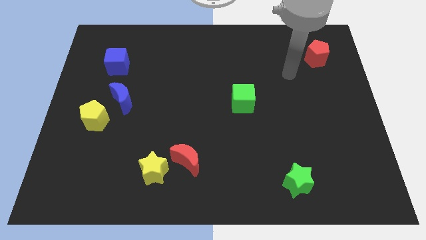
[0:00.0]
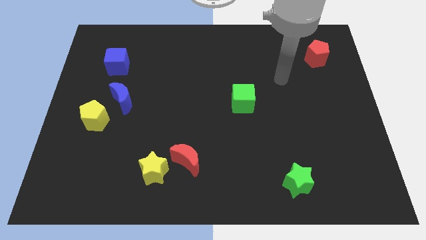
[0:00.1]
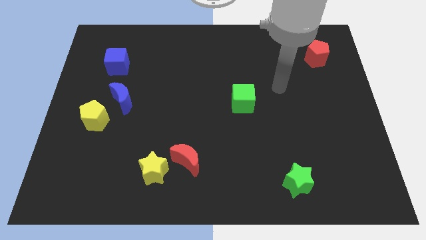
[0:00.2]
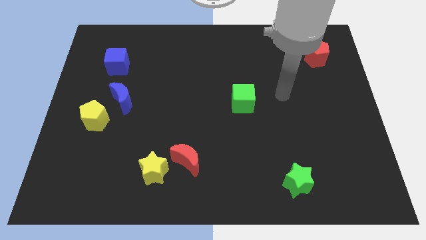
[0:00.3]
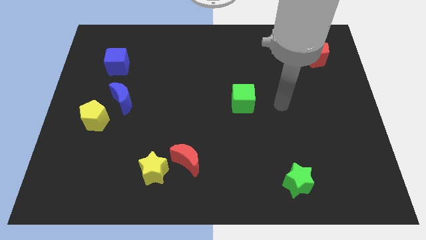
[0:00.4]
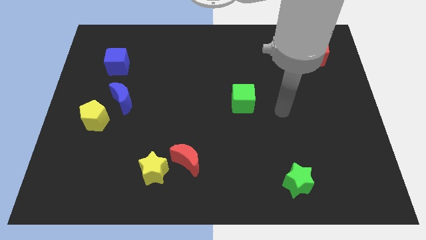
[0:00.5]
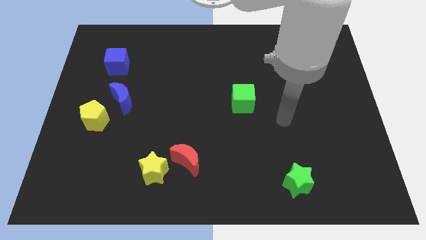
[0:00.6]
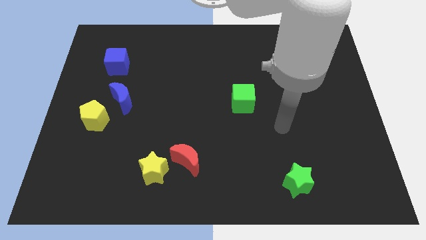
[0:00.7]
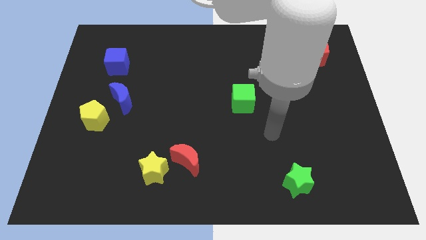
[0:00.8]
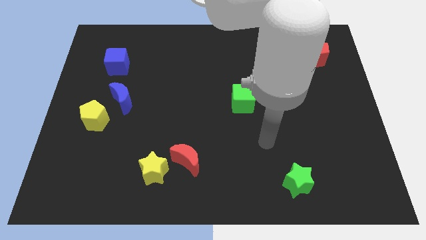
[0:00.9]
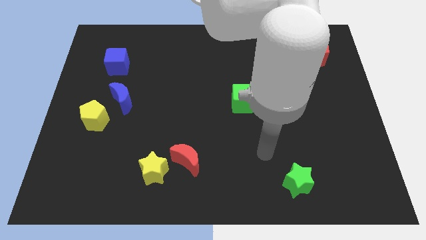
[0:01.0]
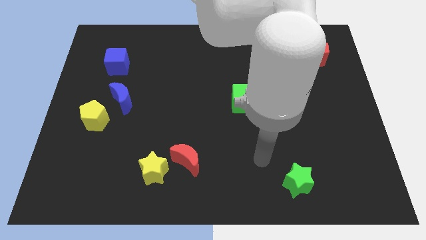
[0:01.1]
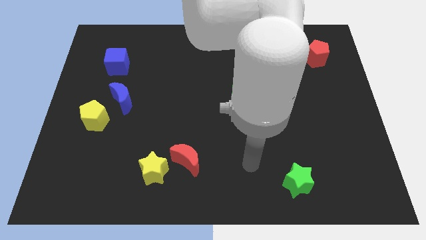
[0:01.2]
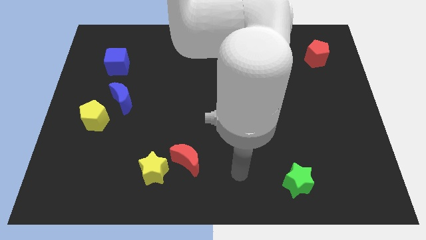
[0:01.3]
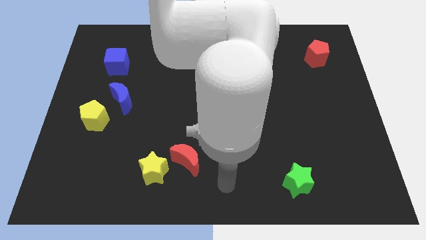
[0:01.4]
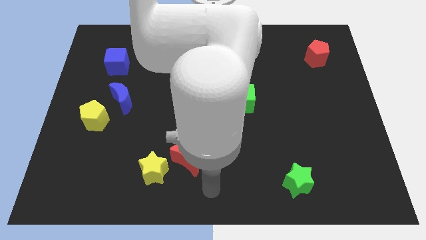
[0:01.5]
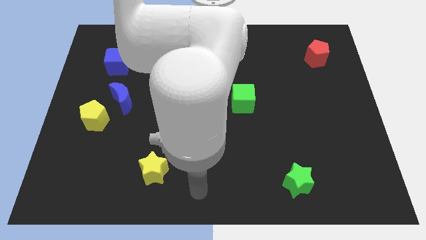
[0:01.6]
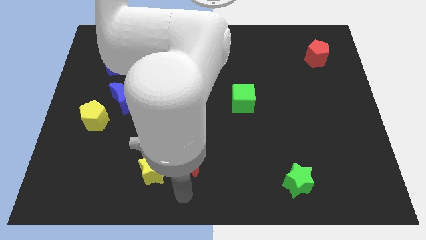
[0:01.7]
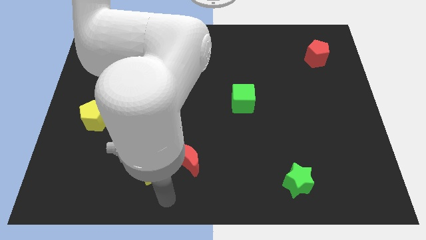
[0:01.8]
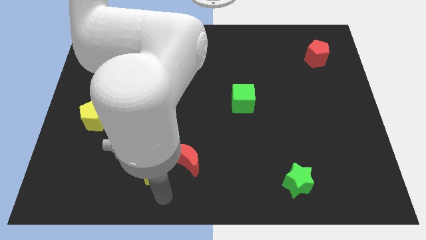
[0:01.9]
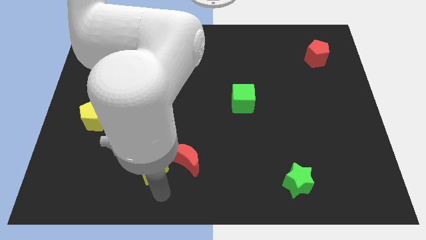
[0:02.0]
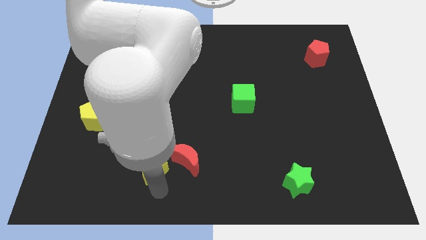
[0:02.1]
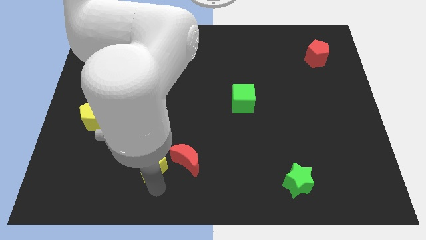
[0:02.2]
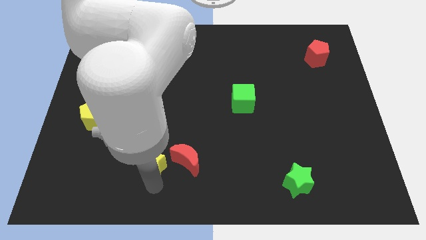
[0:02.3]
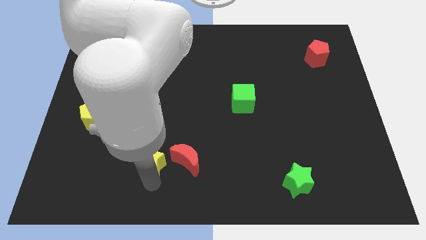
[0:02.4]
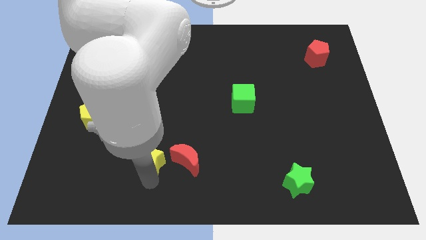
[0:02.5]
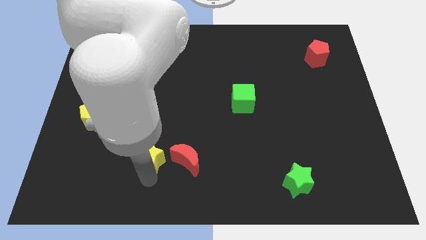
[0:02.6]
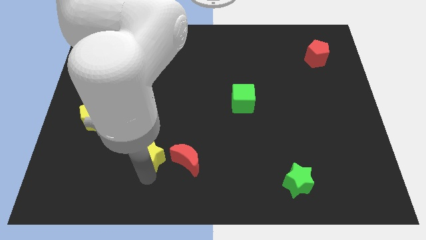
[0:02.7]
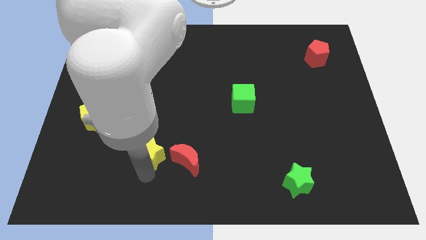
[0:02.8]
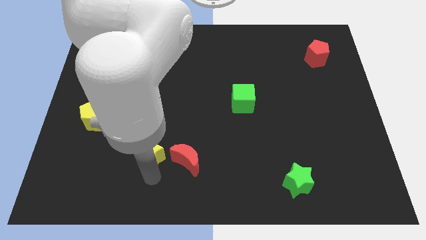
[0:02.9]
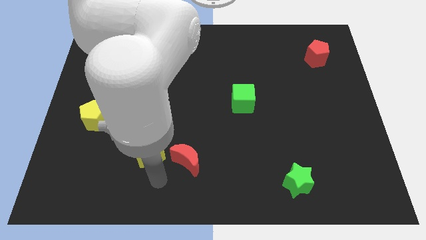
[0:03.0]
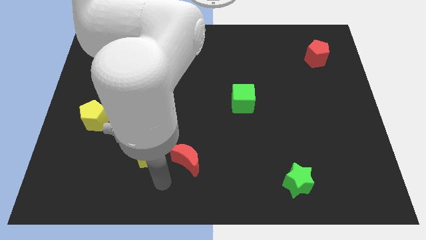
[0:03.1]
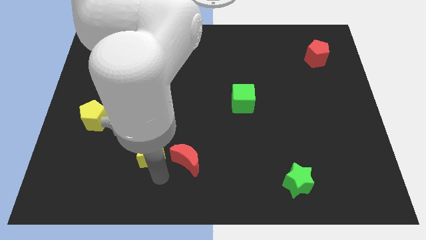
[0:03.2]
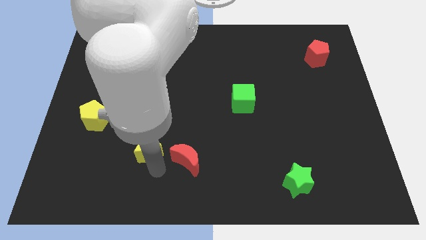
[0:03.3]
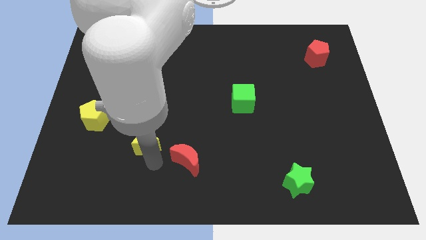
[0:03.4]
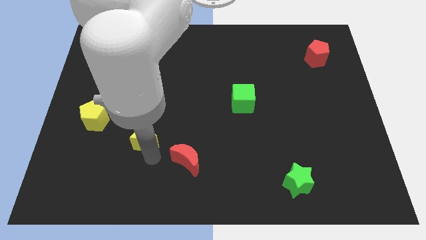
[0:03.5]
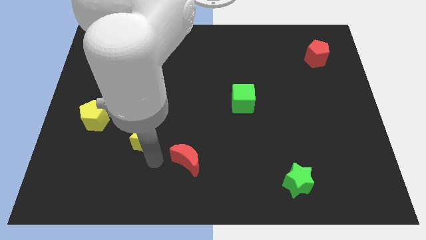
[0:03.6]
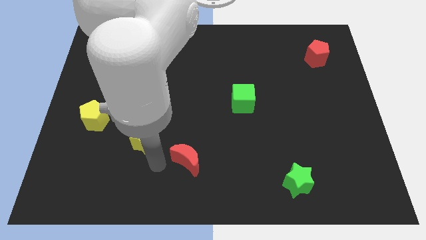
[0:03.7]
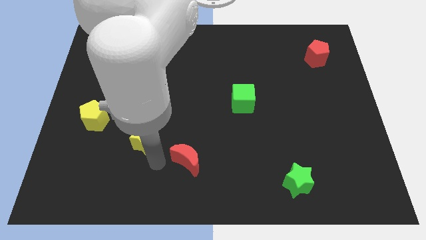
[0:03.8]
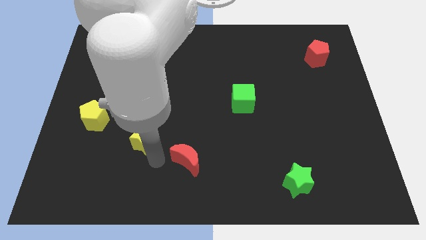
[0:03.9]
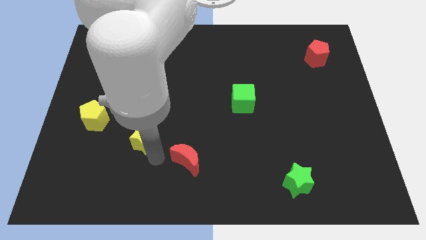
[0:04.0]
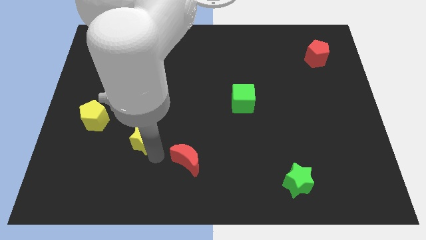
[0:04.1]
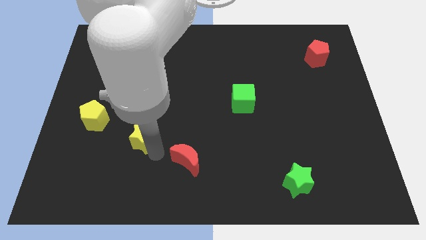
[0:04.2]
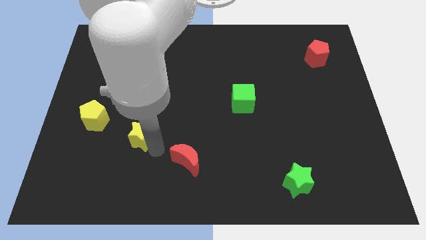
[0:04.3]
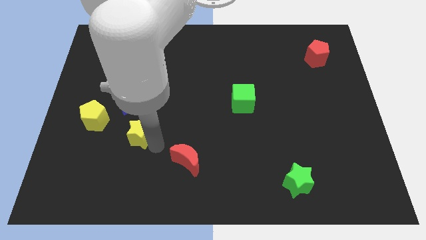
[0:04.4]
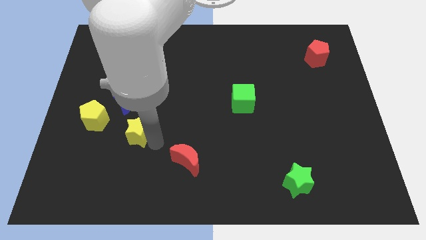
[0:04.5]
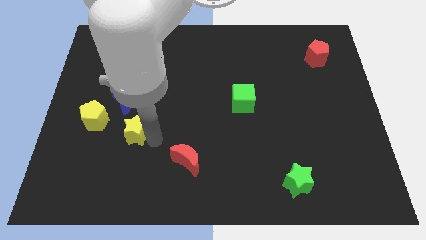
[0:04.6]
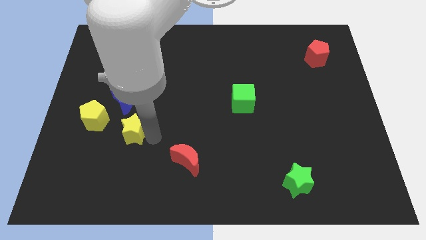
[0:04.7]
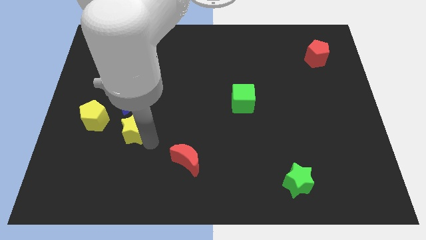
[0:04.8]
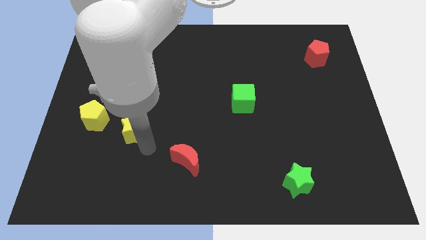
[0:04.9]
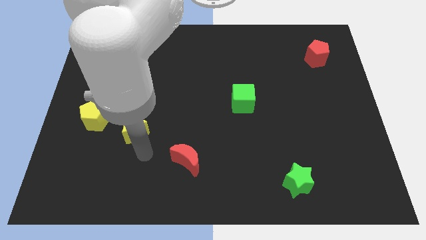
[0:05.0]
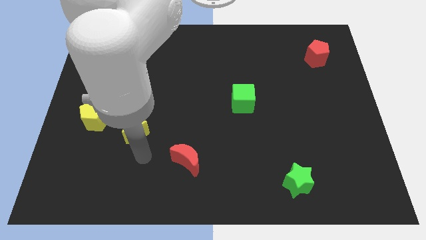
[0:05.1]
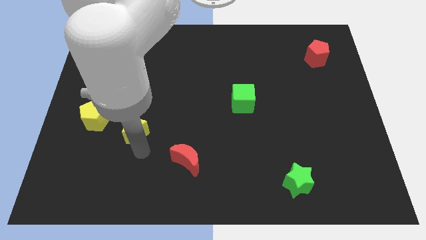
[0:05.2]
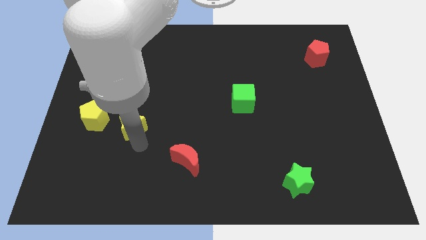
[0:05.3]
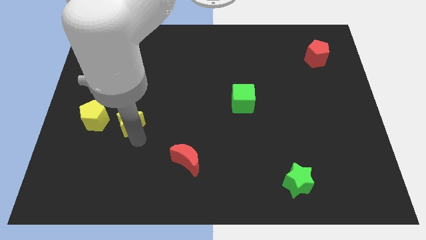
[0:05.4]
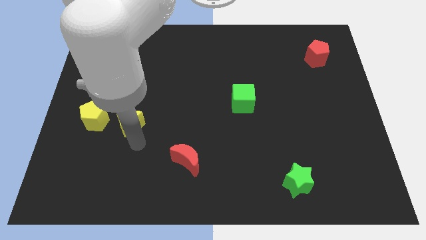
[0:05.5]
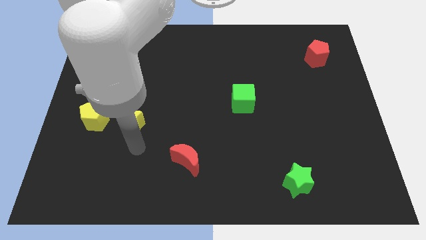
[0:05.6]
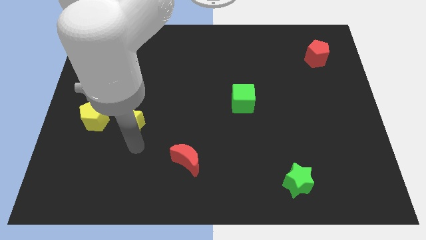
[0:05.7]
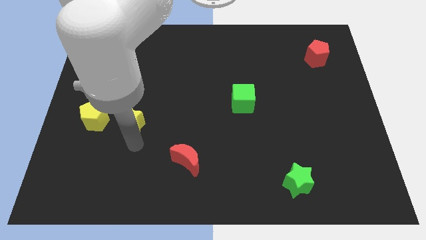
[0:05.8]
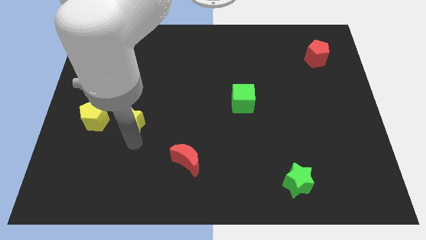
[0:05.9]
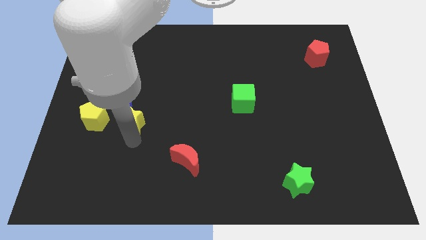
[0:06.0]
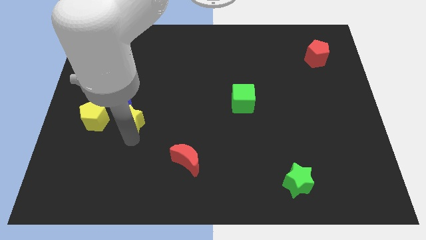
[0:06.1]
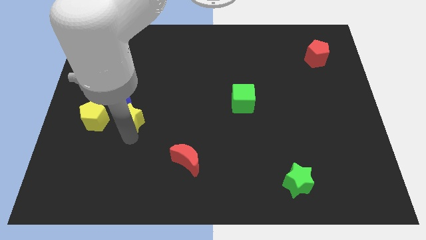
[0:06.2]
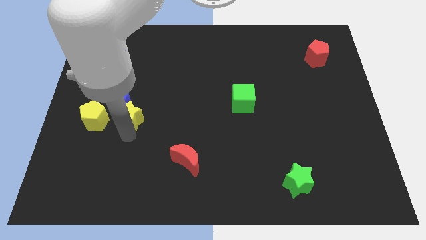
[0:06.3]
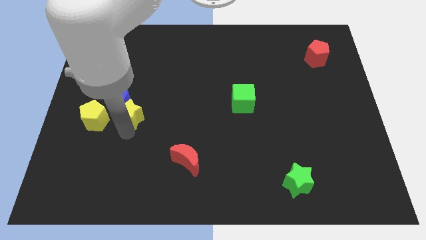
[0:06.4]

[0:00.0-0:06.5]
put the yellow star to the blue moon
